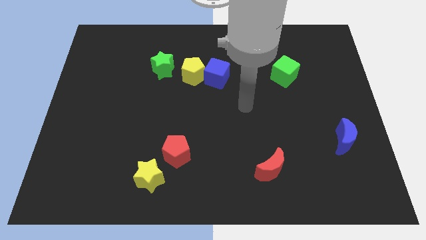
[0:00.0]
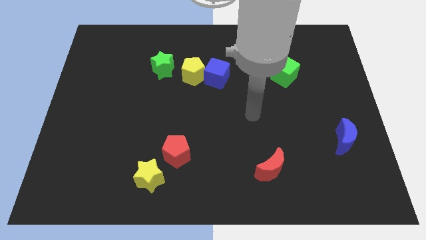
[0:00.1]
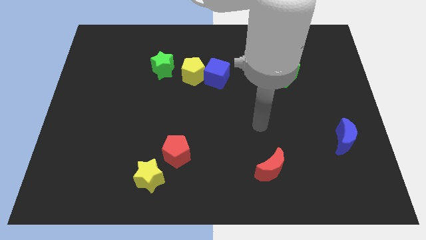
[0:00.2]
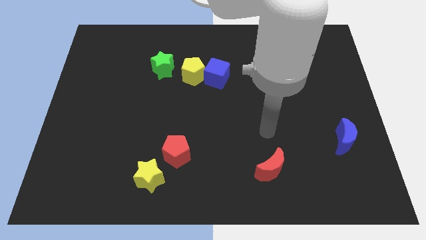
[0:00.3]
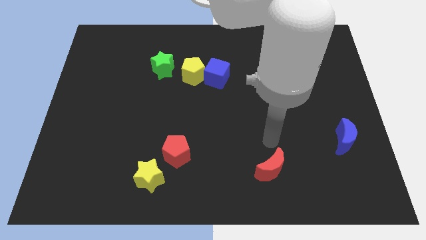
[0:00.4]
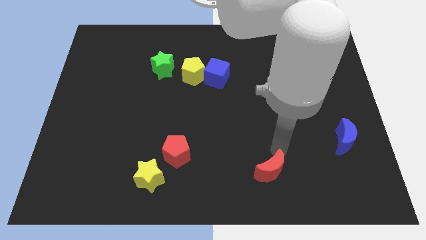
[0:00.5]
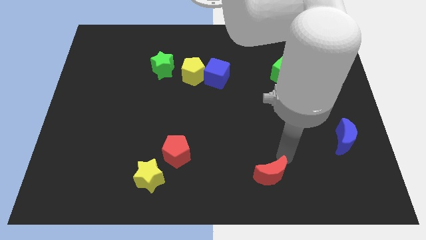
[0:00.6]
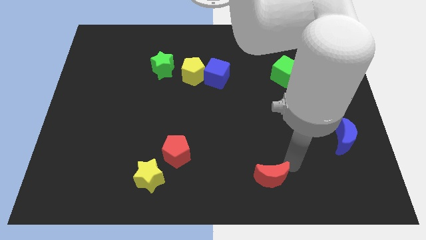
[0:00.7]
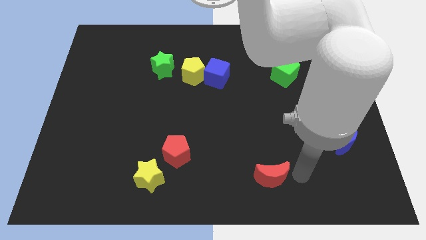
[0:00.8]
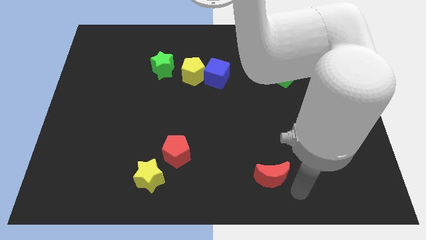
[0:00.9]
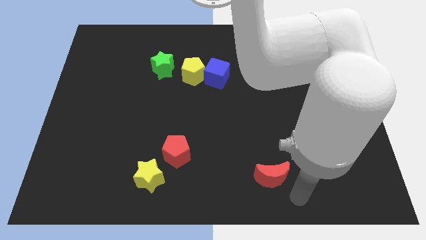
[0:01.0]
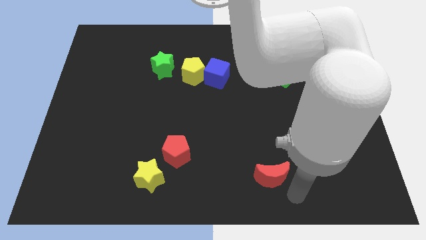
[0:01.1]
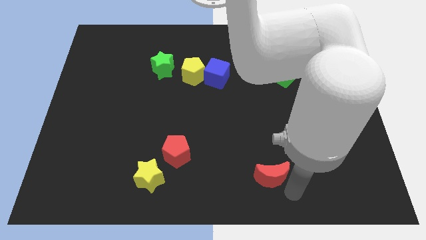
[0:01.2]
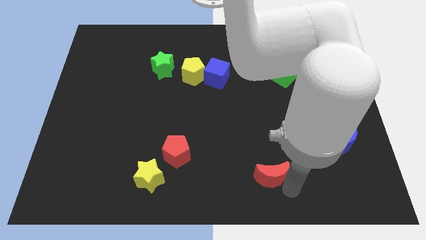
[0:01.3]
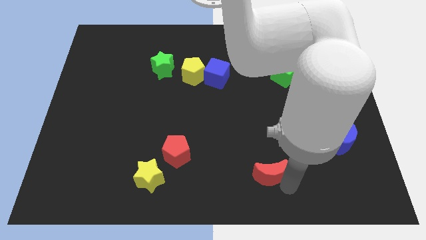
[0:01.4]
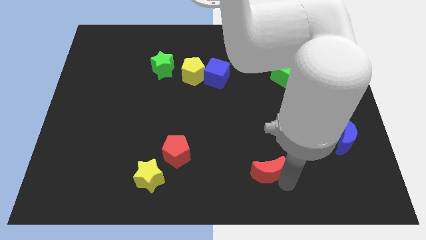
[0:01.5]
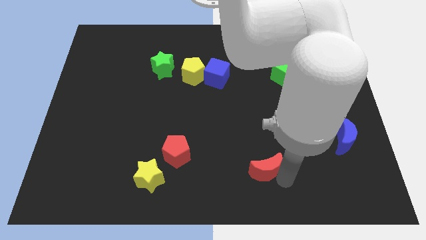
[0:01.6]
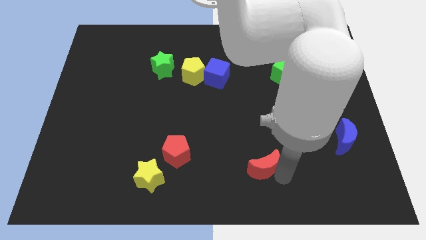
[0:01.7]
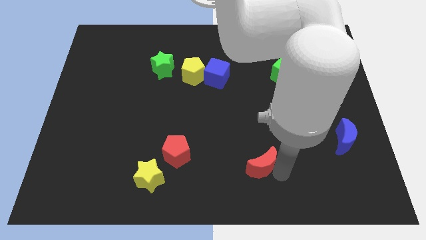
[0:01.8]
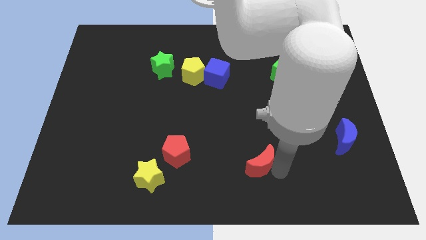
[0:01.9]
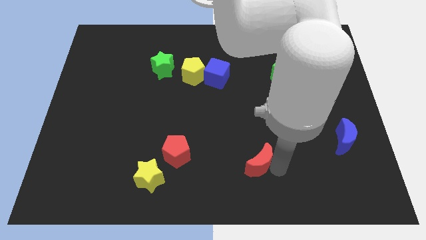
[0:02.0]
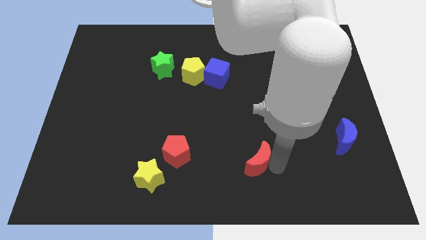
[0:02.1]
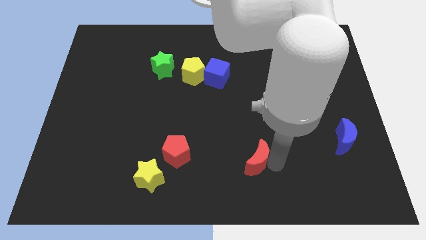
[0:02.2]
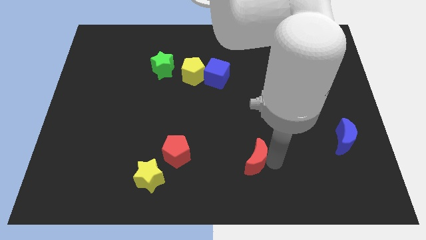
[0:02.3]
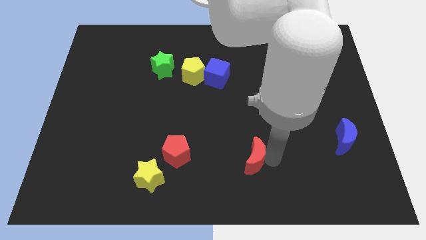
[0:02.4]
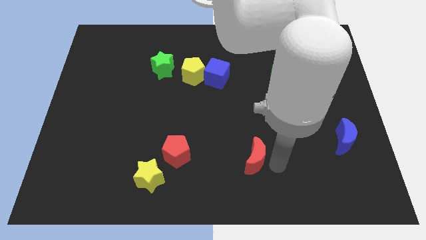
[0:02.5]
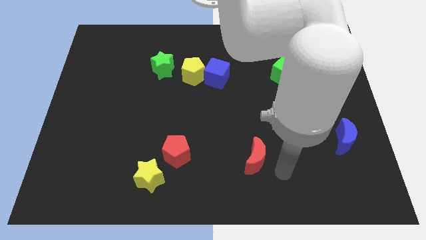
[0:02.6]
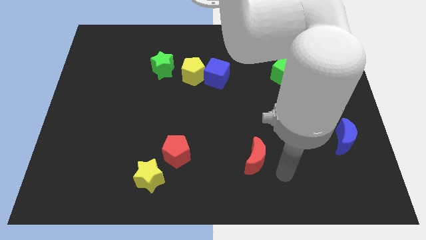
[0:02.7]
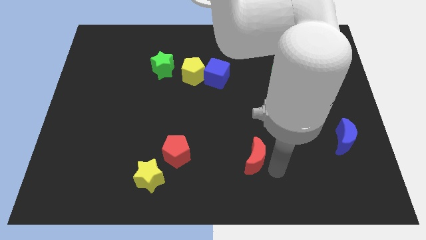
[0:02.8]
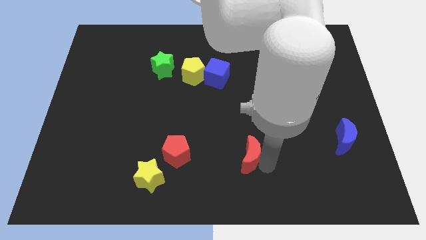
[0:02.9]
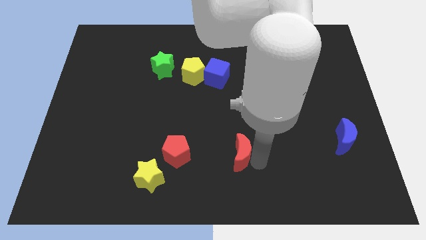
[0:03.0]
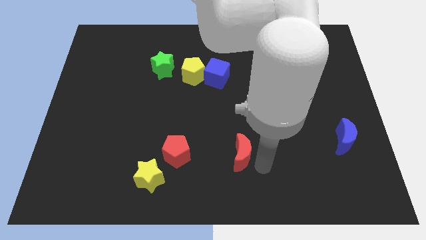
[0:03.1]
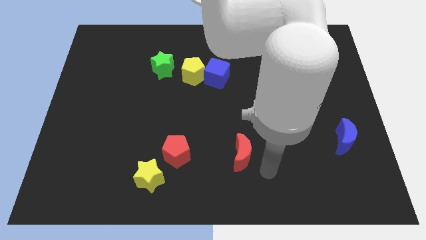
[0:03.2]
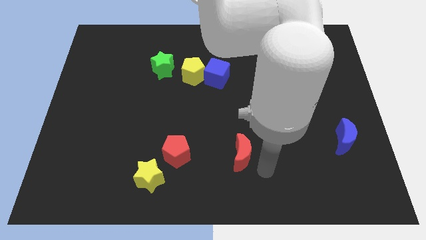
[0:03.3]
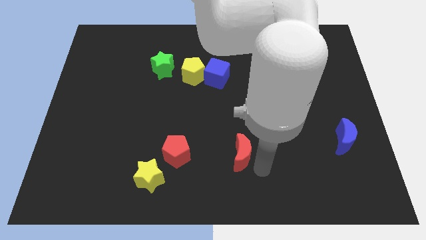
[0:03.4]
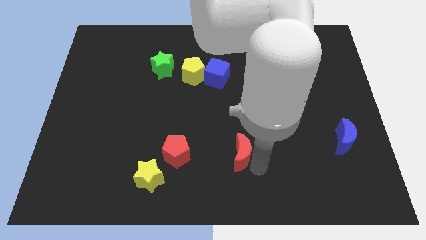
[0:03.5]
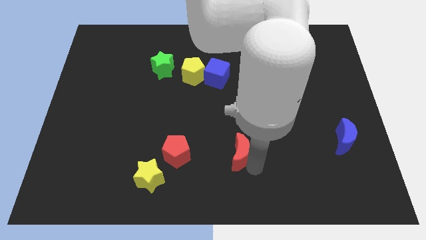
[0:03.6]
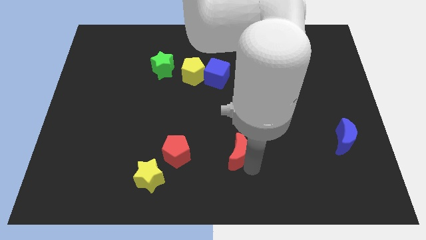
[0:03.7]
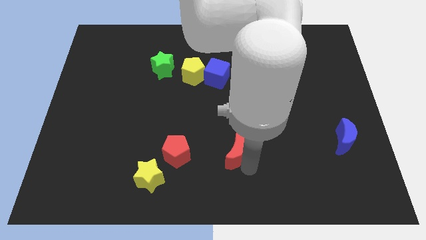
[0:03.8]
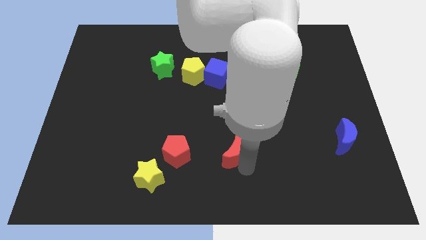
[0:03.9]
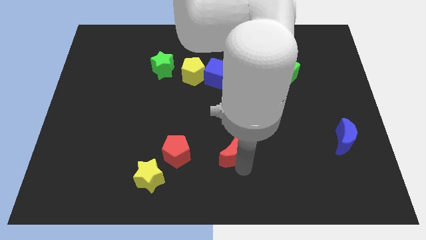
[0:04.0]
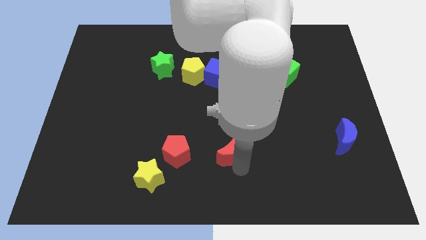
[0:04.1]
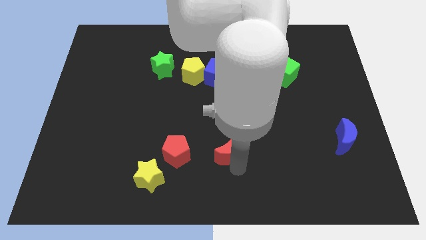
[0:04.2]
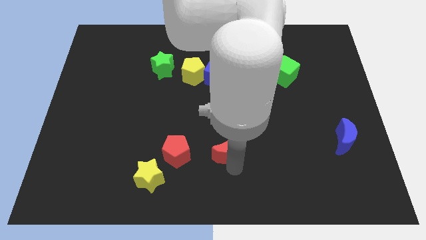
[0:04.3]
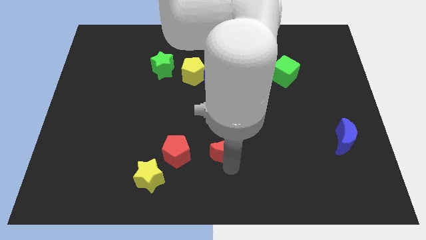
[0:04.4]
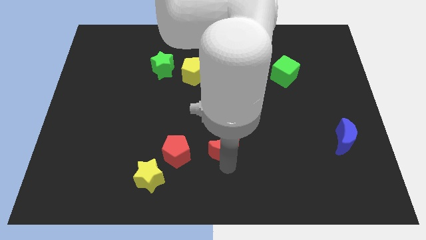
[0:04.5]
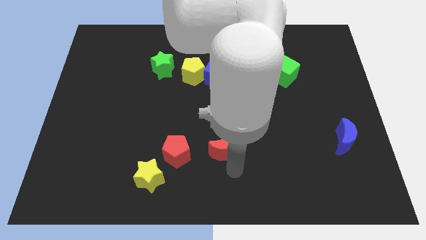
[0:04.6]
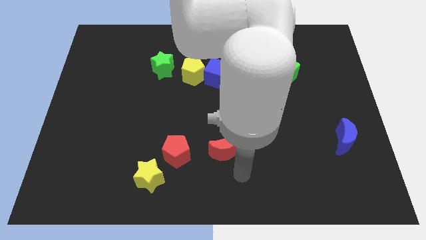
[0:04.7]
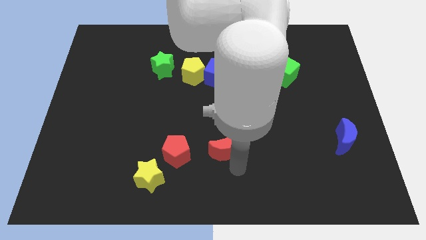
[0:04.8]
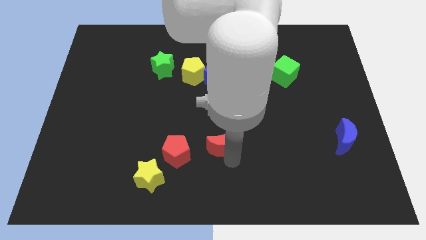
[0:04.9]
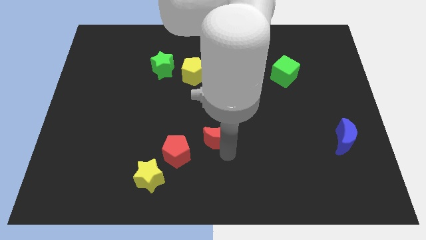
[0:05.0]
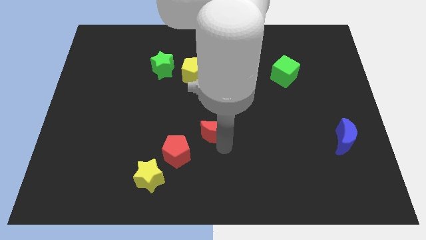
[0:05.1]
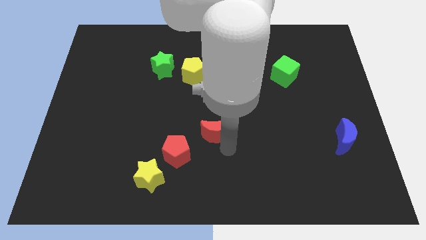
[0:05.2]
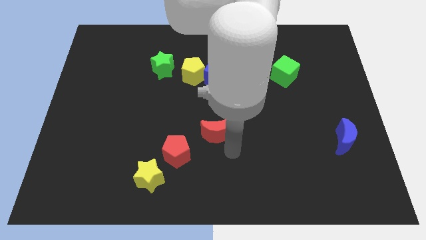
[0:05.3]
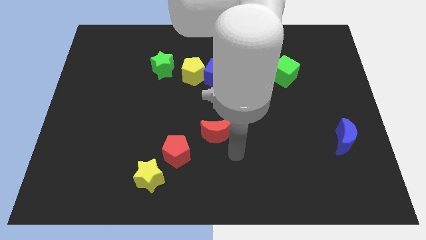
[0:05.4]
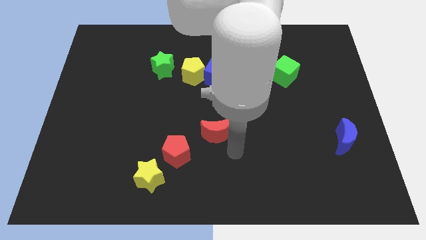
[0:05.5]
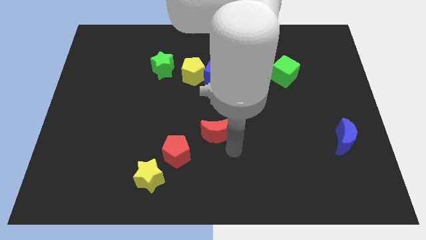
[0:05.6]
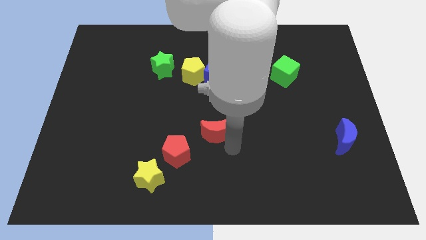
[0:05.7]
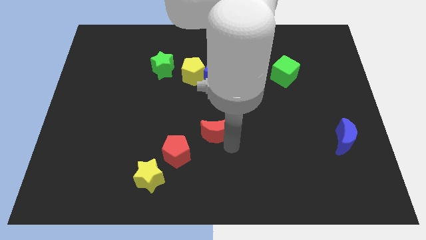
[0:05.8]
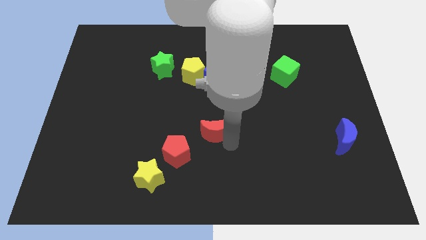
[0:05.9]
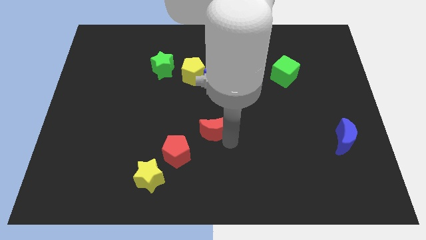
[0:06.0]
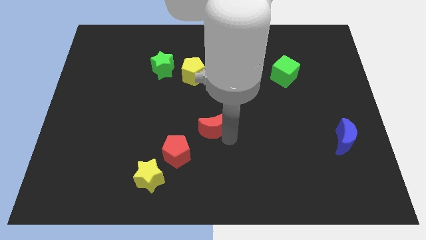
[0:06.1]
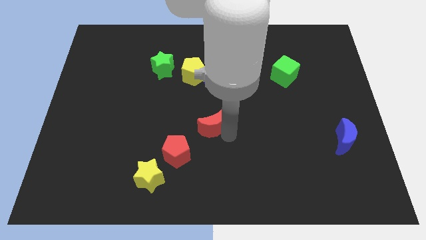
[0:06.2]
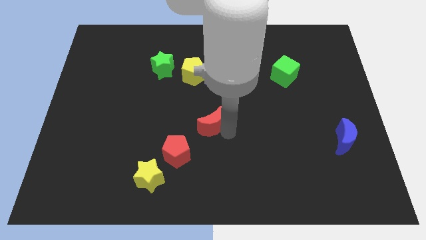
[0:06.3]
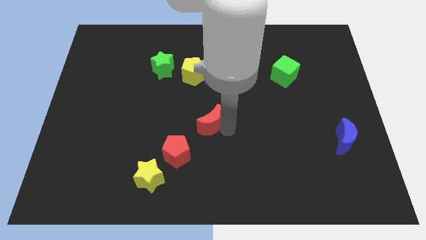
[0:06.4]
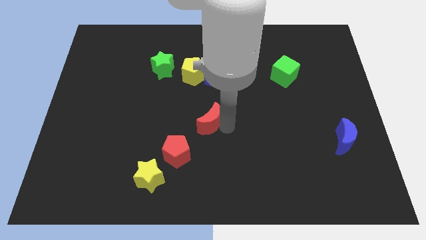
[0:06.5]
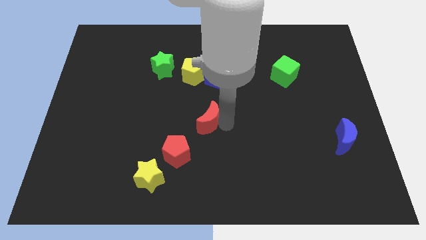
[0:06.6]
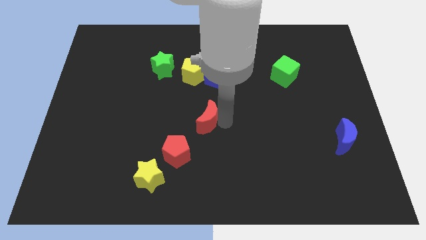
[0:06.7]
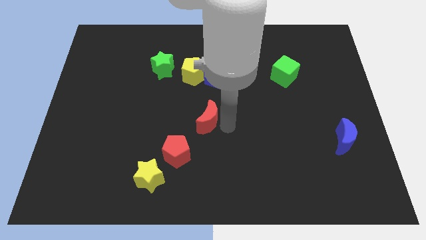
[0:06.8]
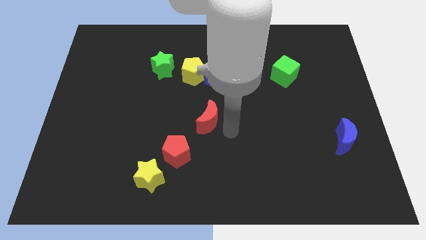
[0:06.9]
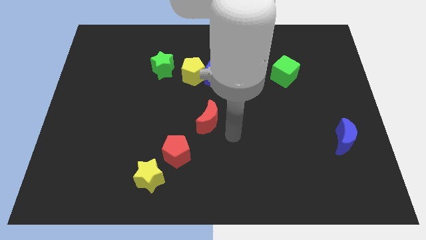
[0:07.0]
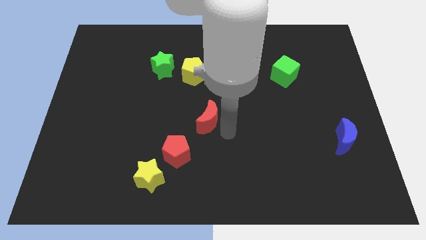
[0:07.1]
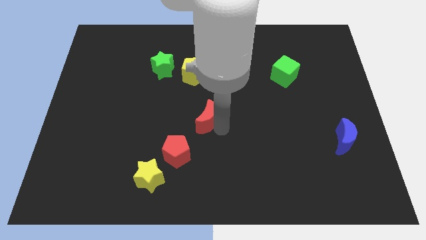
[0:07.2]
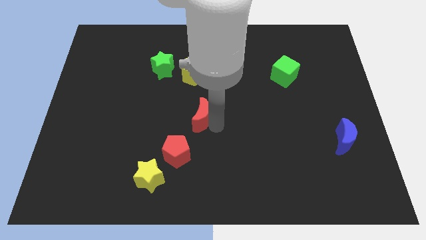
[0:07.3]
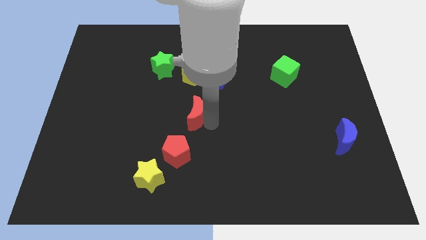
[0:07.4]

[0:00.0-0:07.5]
move the red moon diagonally upwards and left

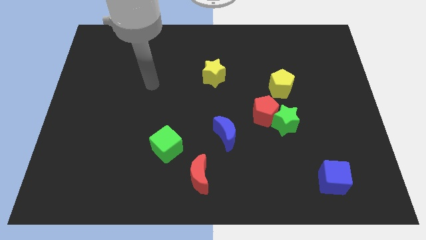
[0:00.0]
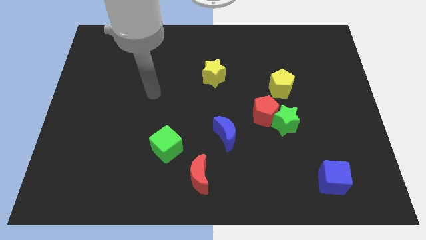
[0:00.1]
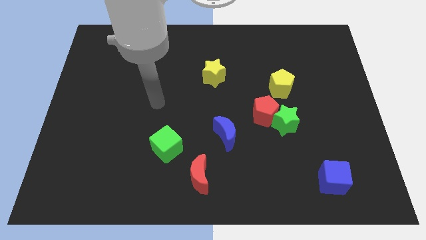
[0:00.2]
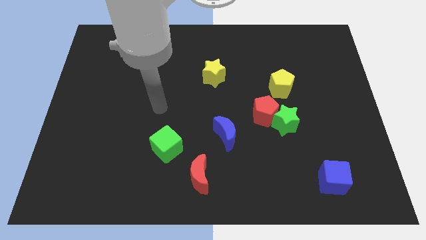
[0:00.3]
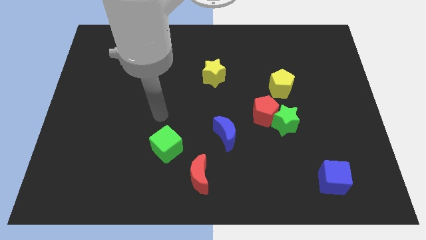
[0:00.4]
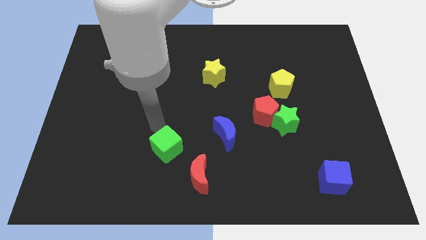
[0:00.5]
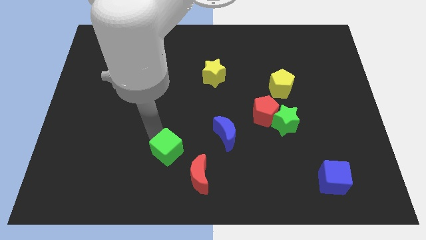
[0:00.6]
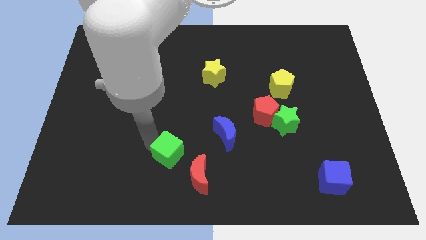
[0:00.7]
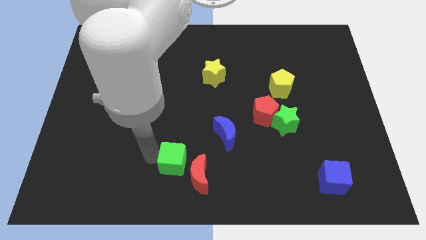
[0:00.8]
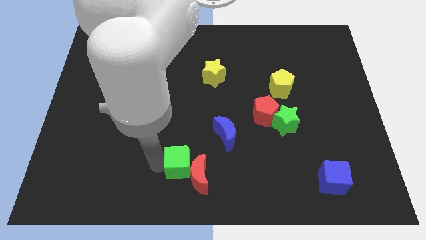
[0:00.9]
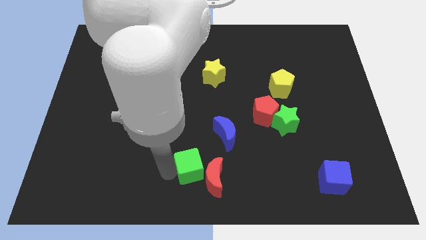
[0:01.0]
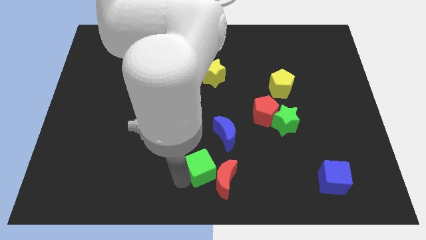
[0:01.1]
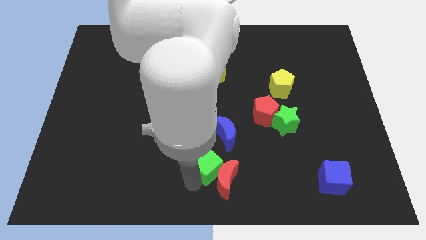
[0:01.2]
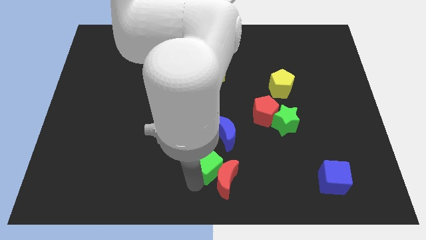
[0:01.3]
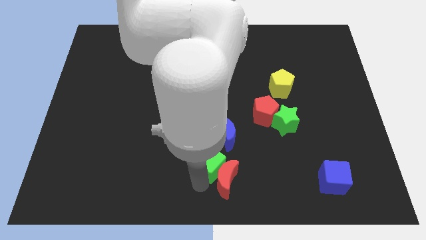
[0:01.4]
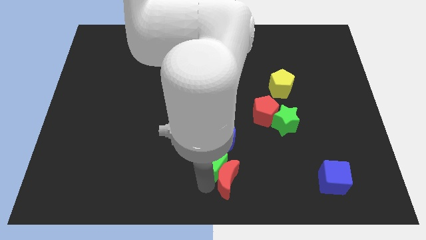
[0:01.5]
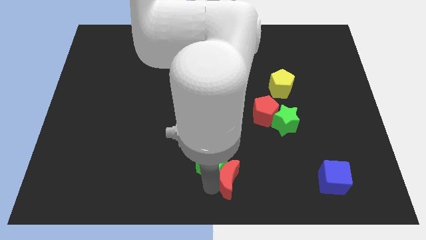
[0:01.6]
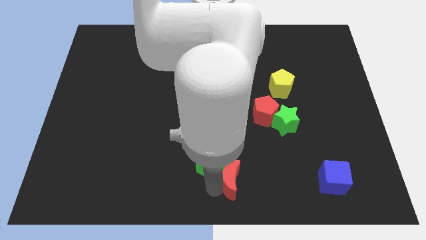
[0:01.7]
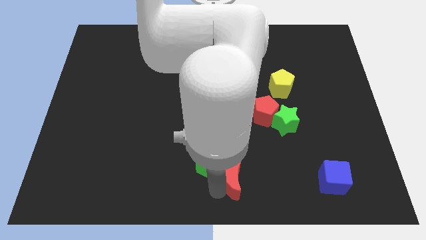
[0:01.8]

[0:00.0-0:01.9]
slide the red moon a bit right
